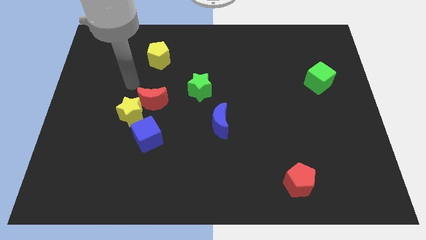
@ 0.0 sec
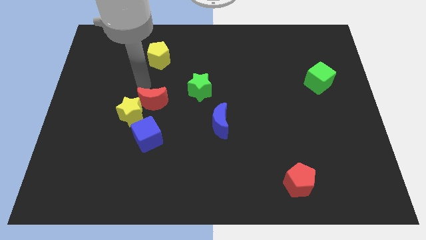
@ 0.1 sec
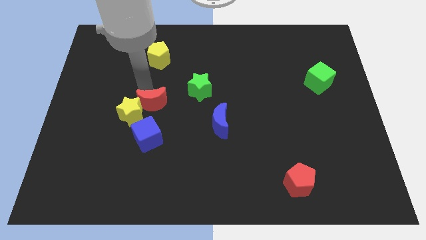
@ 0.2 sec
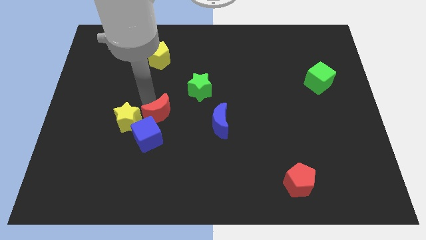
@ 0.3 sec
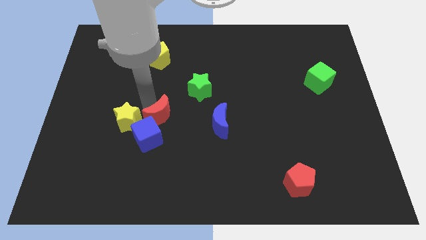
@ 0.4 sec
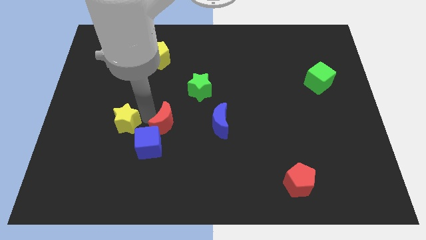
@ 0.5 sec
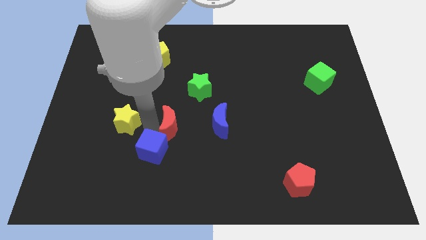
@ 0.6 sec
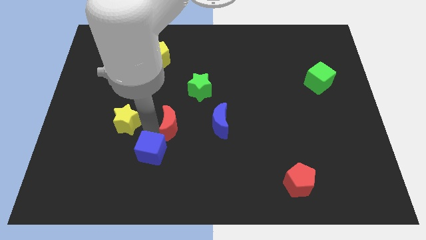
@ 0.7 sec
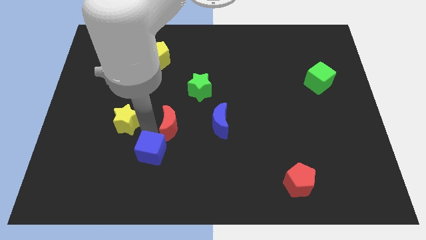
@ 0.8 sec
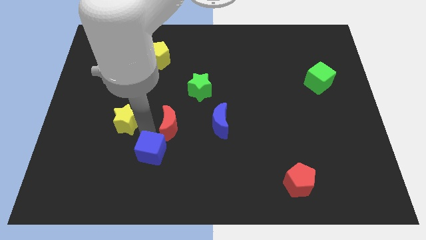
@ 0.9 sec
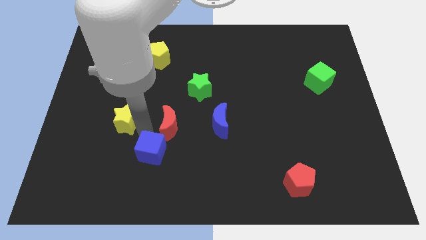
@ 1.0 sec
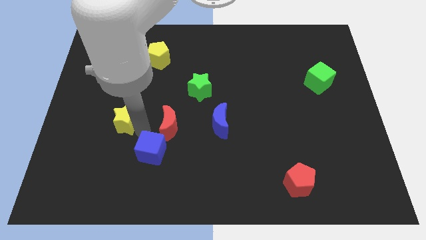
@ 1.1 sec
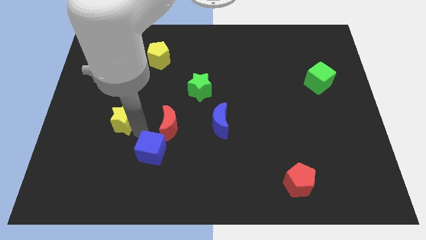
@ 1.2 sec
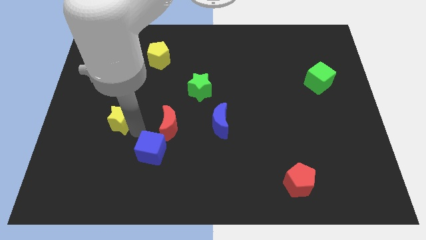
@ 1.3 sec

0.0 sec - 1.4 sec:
move the yellow star away from the red moon and blue cube

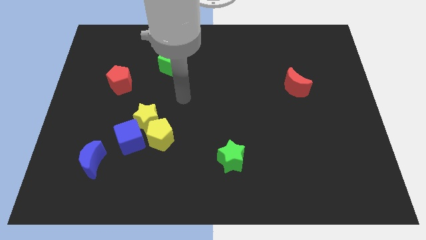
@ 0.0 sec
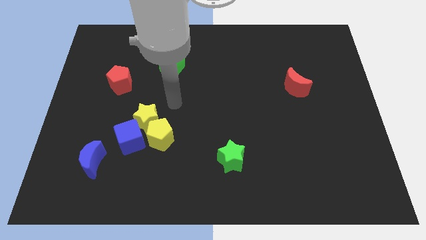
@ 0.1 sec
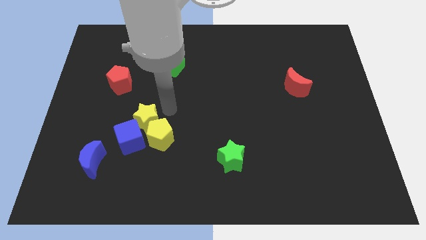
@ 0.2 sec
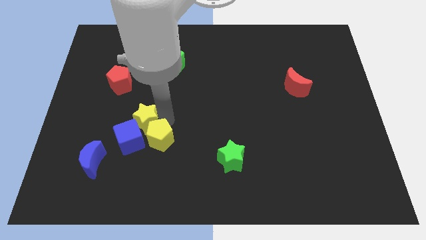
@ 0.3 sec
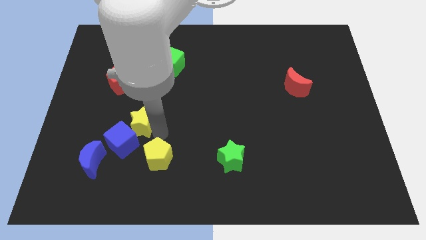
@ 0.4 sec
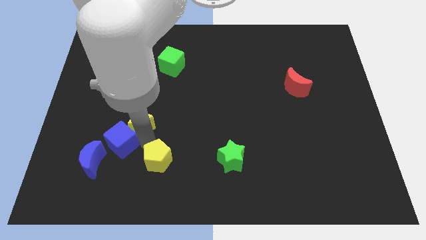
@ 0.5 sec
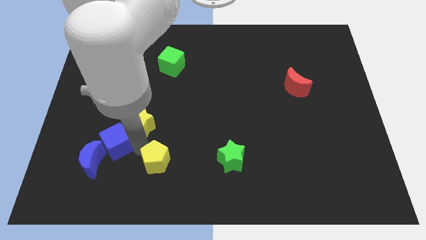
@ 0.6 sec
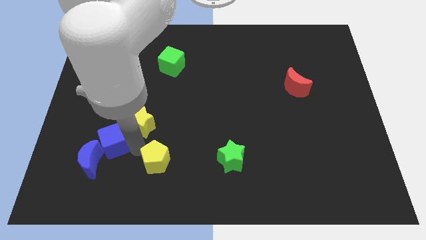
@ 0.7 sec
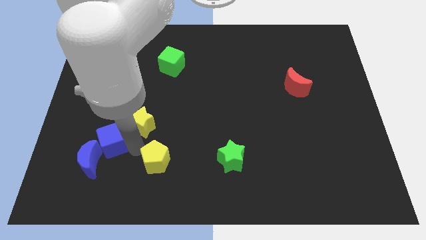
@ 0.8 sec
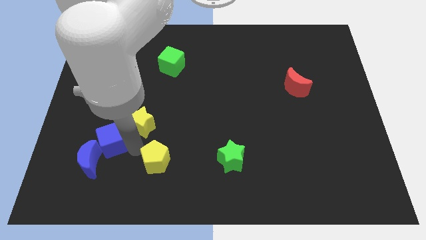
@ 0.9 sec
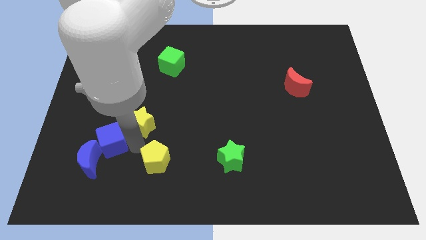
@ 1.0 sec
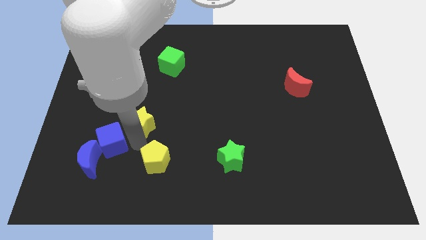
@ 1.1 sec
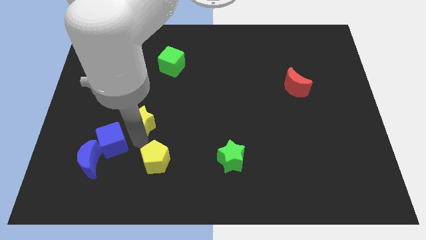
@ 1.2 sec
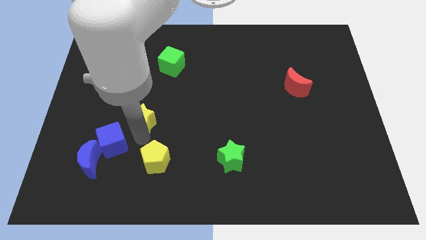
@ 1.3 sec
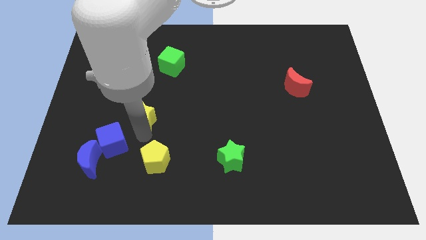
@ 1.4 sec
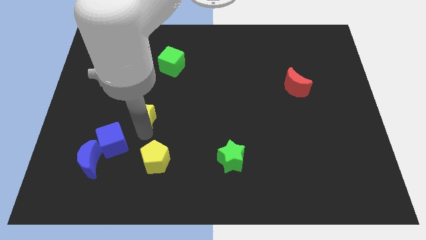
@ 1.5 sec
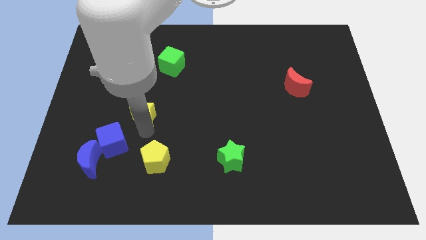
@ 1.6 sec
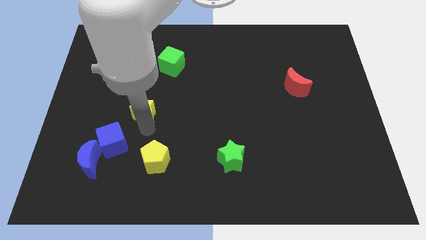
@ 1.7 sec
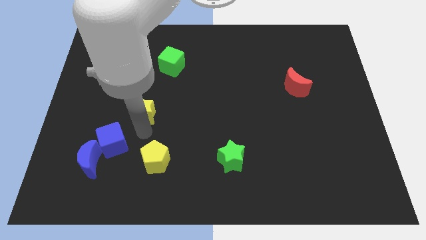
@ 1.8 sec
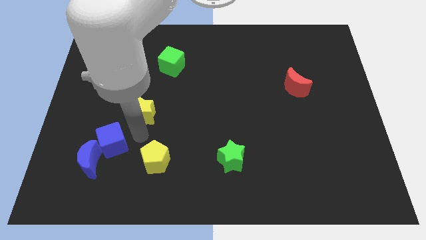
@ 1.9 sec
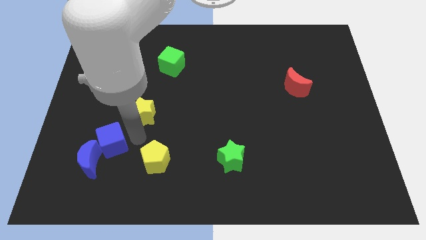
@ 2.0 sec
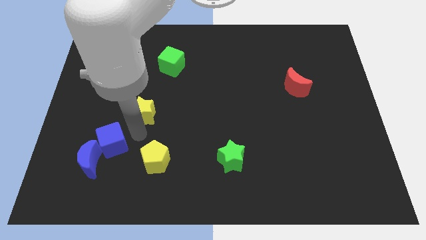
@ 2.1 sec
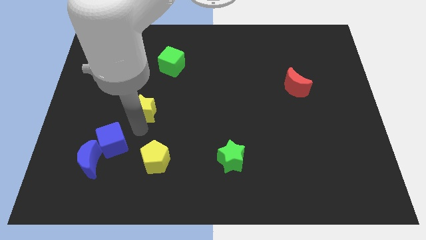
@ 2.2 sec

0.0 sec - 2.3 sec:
move the yellow star away from the yellow pentagon and blue cube

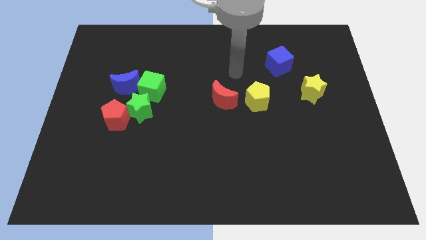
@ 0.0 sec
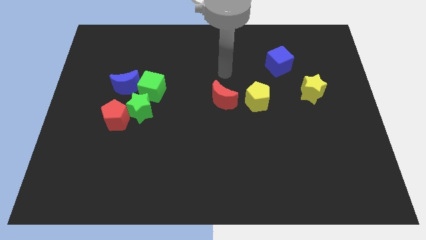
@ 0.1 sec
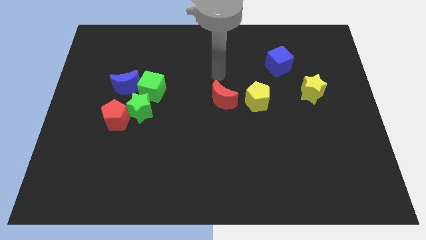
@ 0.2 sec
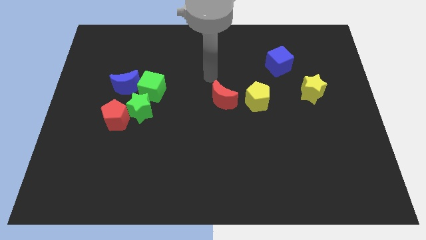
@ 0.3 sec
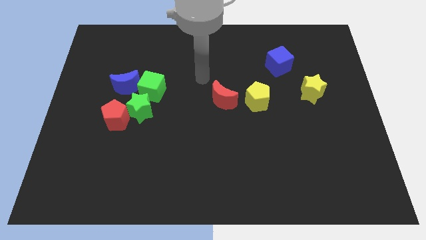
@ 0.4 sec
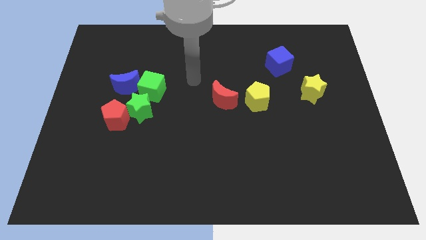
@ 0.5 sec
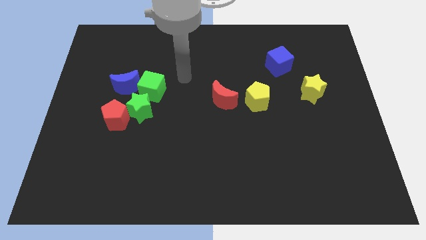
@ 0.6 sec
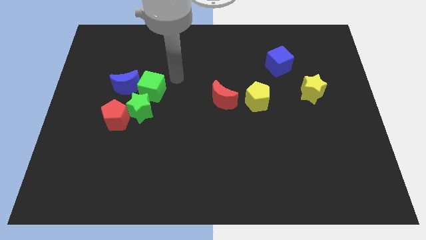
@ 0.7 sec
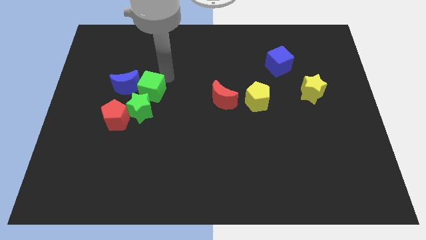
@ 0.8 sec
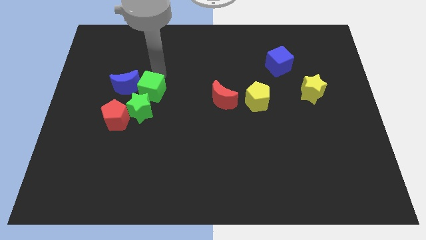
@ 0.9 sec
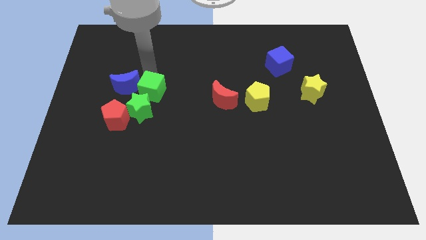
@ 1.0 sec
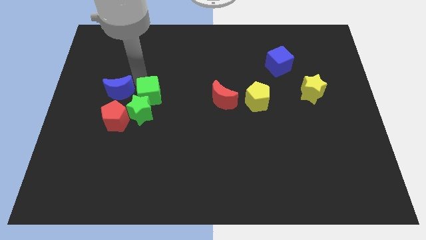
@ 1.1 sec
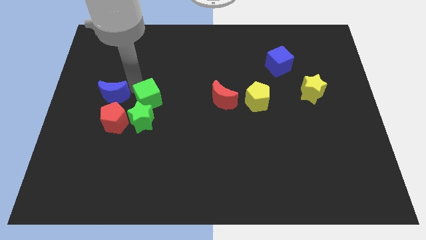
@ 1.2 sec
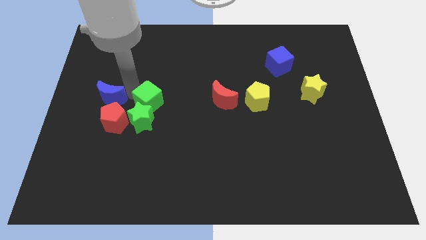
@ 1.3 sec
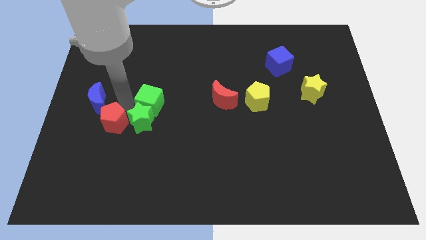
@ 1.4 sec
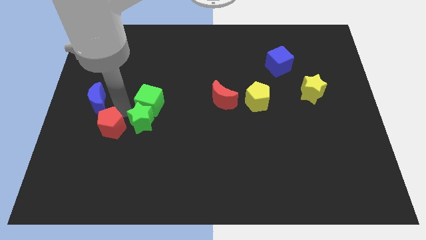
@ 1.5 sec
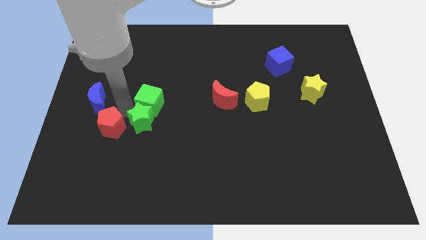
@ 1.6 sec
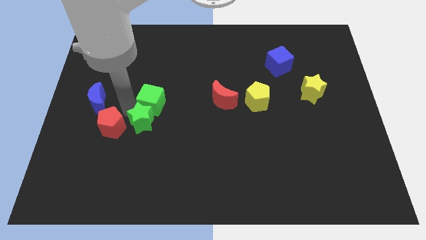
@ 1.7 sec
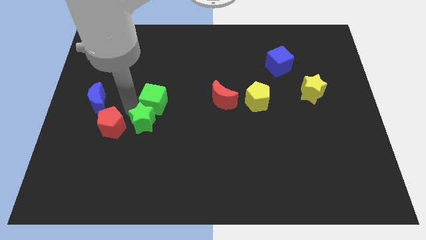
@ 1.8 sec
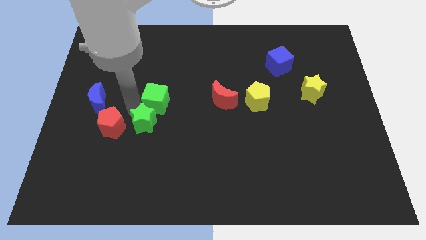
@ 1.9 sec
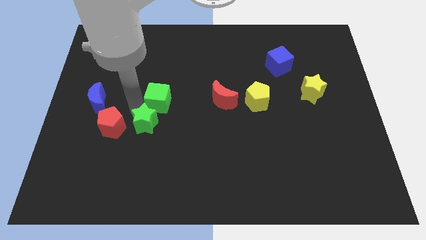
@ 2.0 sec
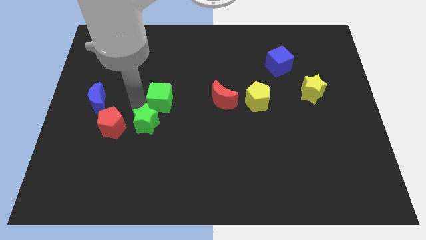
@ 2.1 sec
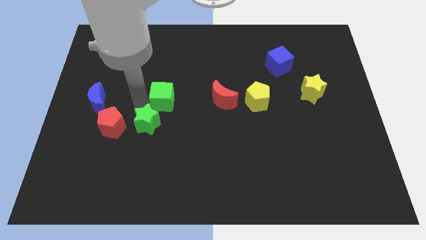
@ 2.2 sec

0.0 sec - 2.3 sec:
separate the green cube from the blue moon and green star

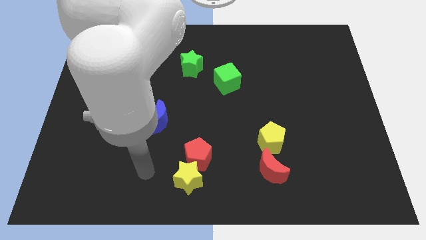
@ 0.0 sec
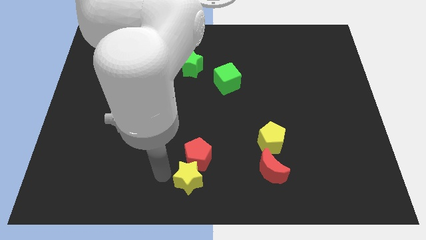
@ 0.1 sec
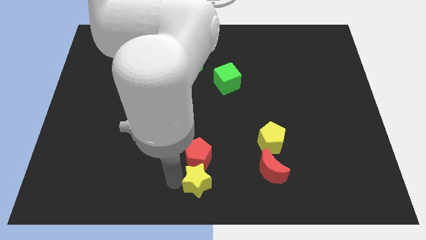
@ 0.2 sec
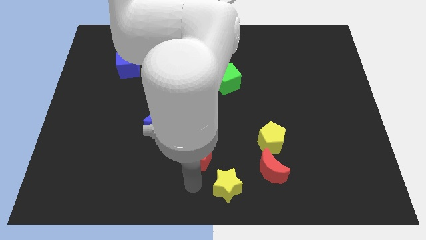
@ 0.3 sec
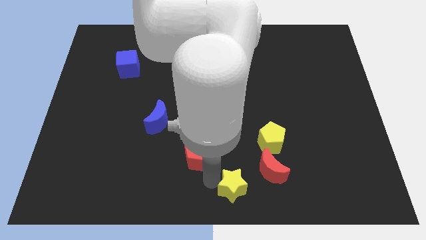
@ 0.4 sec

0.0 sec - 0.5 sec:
move the red pentagon away from the yellow star

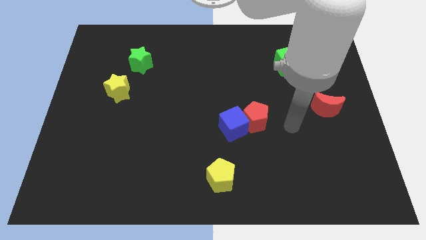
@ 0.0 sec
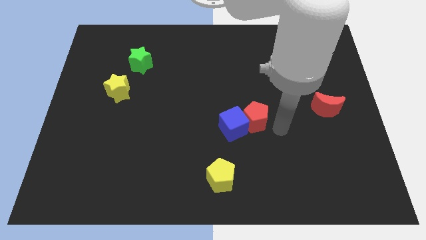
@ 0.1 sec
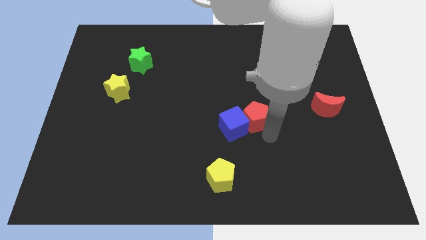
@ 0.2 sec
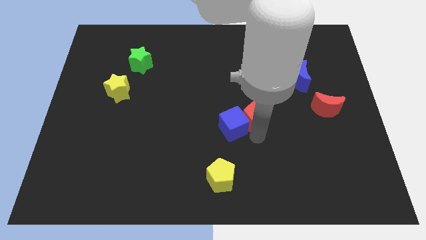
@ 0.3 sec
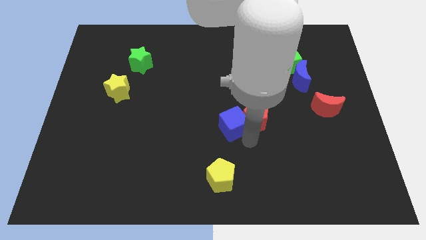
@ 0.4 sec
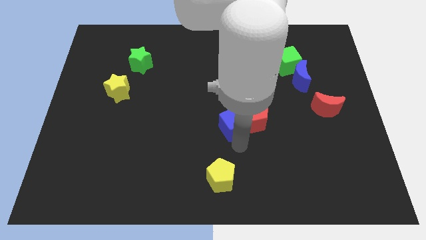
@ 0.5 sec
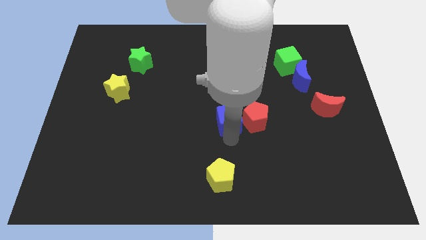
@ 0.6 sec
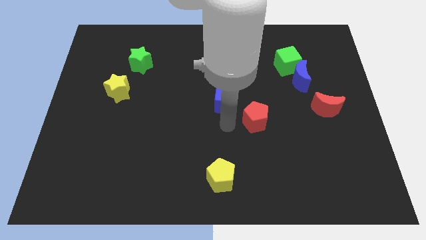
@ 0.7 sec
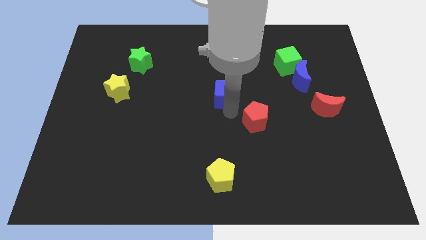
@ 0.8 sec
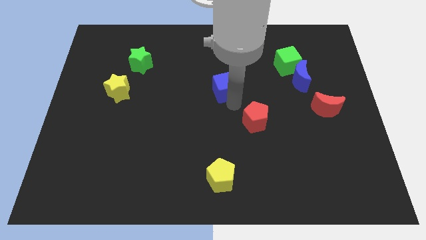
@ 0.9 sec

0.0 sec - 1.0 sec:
pull the red pentagon apart from the blue cube

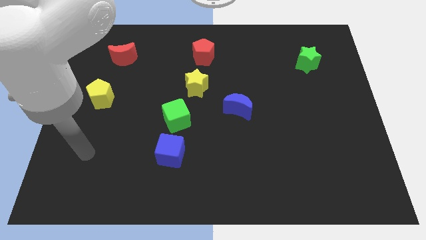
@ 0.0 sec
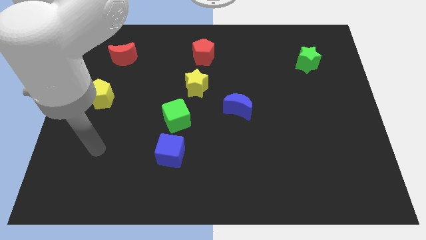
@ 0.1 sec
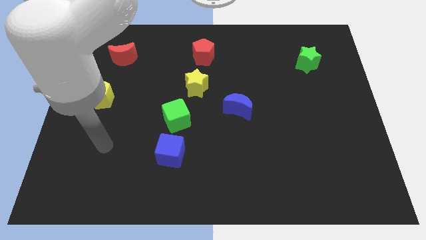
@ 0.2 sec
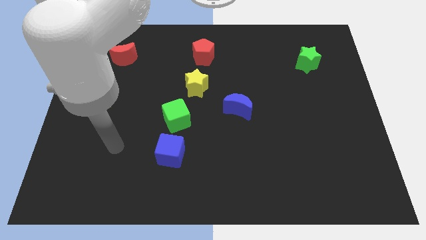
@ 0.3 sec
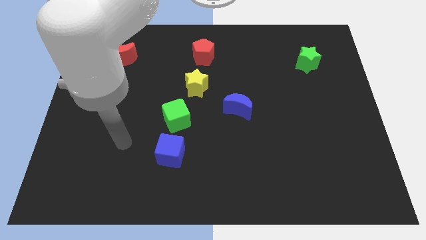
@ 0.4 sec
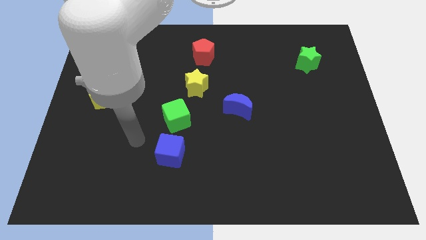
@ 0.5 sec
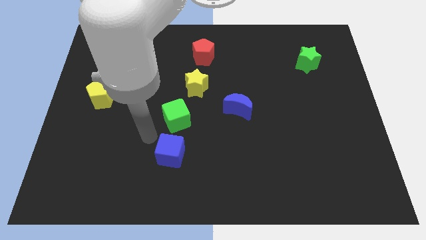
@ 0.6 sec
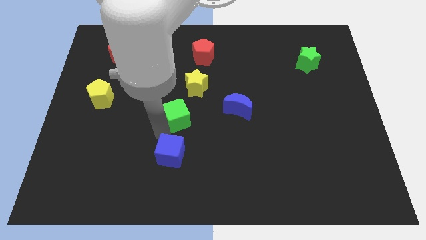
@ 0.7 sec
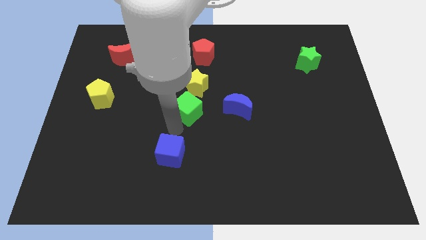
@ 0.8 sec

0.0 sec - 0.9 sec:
pull the blue cube apart from the green cube

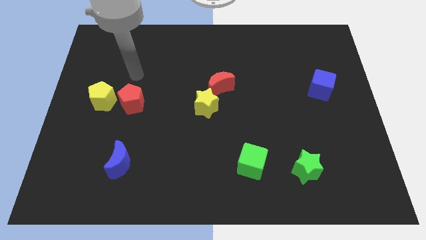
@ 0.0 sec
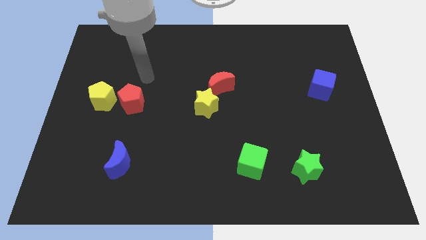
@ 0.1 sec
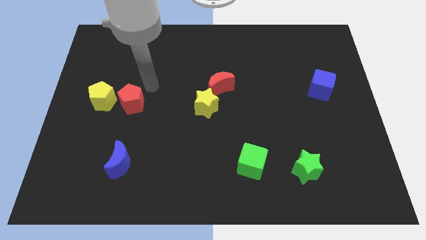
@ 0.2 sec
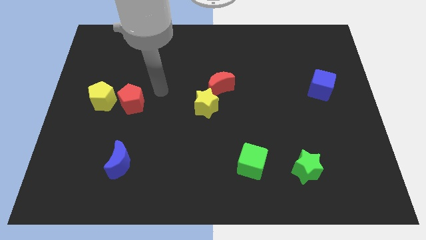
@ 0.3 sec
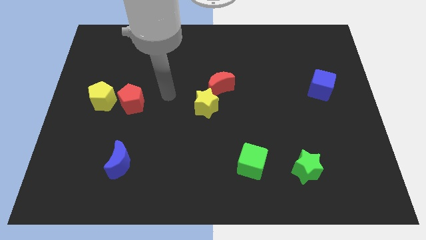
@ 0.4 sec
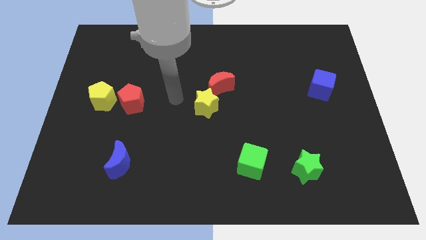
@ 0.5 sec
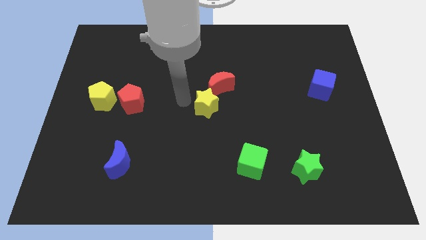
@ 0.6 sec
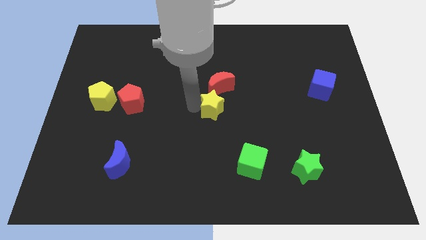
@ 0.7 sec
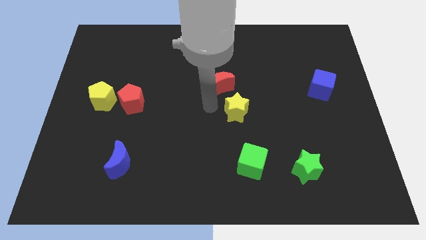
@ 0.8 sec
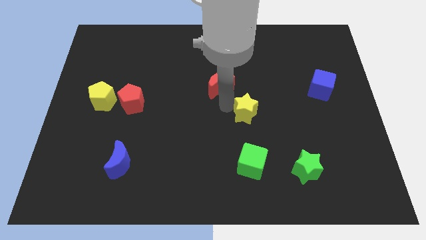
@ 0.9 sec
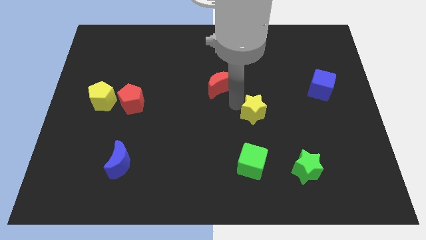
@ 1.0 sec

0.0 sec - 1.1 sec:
separate the red moon from the yellow star
